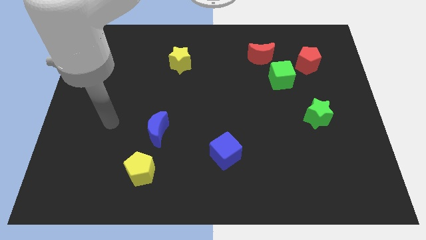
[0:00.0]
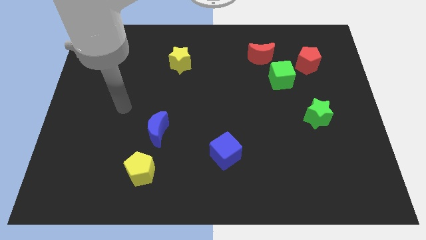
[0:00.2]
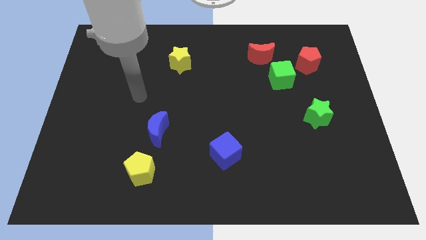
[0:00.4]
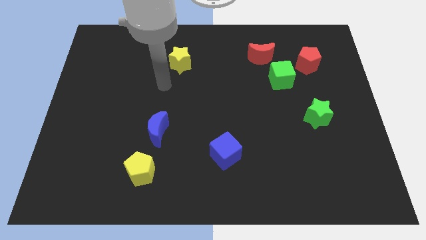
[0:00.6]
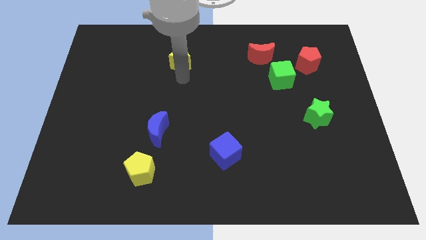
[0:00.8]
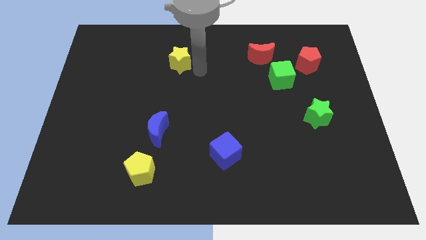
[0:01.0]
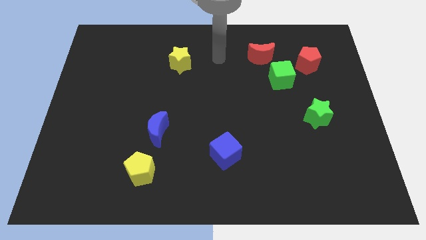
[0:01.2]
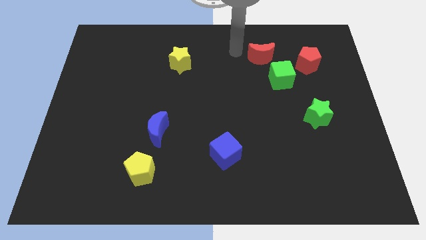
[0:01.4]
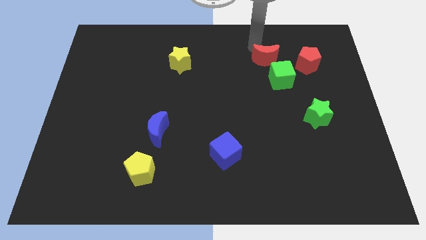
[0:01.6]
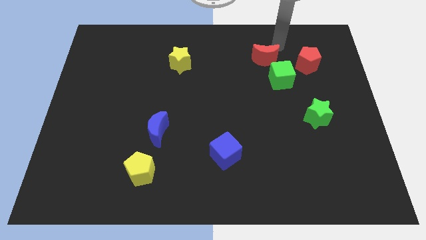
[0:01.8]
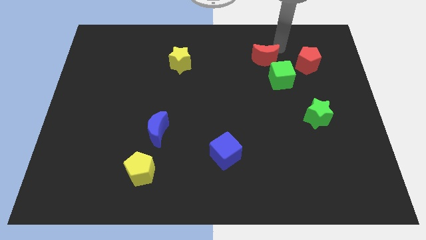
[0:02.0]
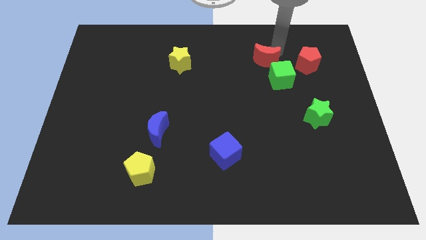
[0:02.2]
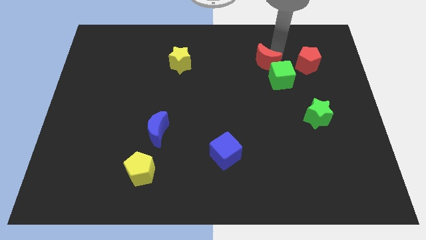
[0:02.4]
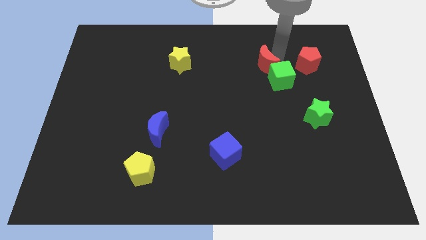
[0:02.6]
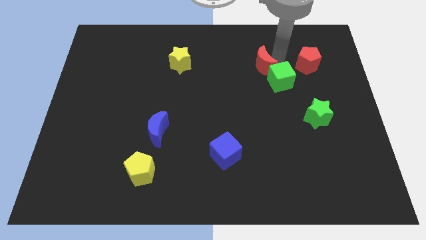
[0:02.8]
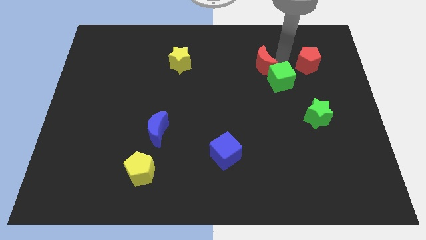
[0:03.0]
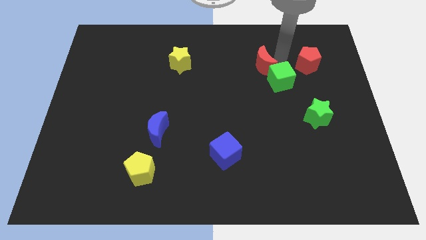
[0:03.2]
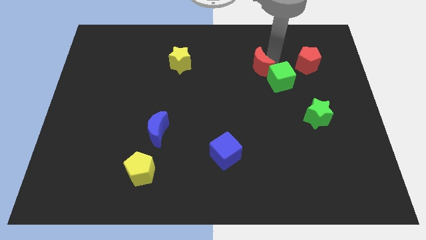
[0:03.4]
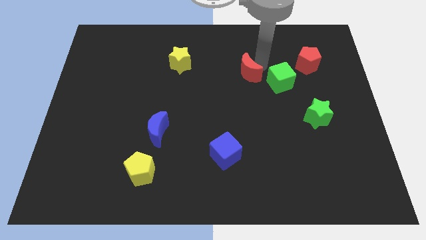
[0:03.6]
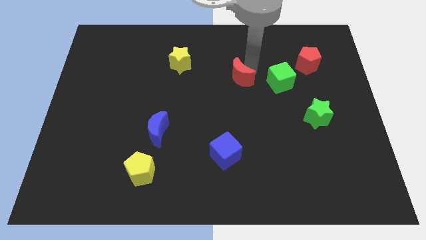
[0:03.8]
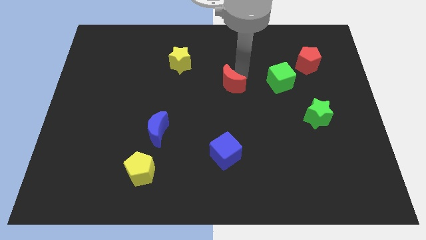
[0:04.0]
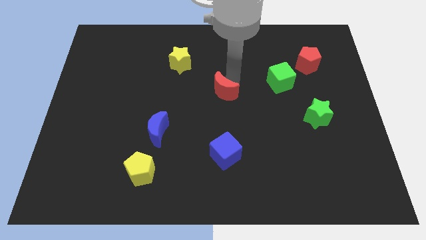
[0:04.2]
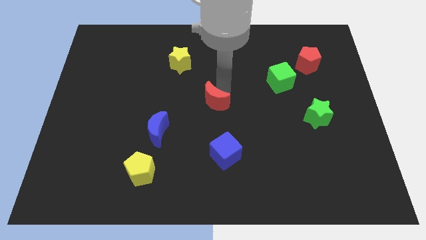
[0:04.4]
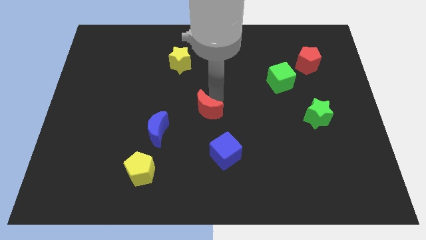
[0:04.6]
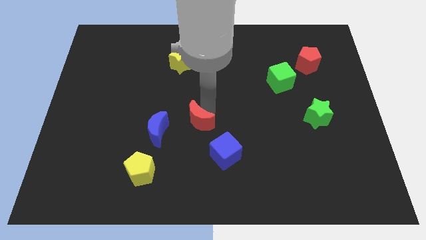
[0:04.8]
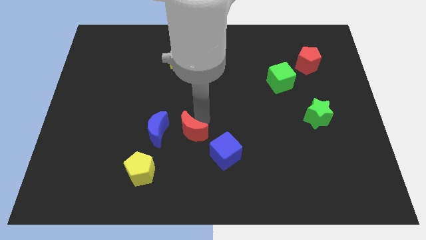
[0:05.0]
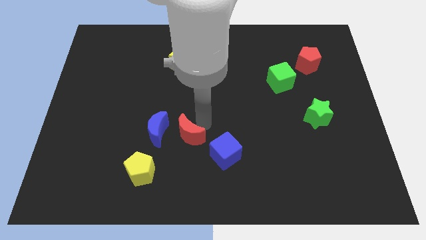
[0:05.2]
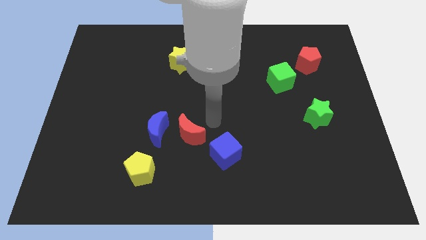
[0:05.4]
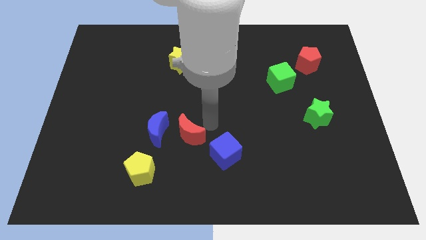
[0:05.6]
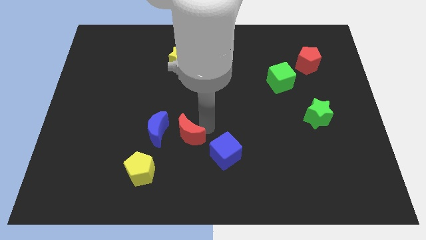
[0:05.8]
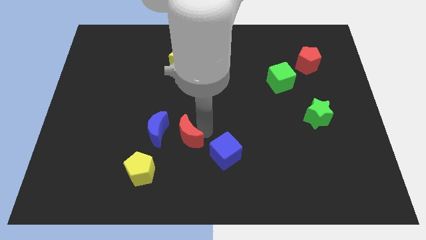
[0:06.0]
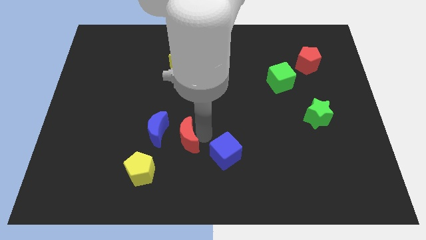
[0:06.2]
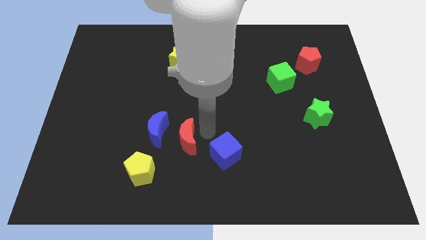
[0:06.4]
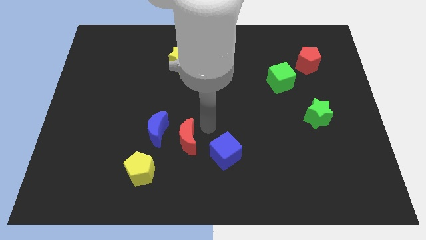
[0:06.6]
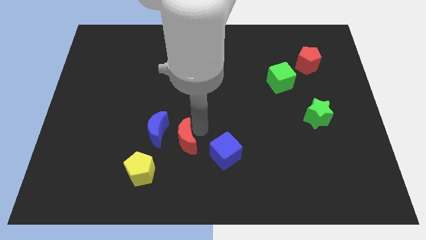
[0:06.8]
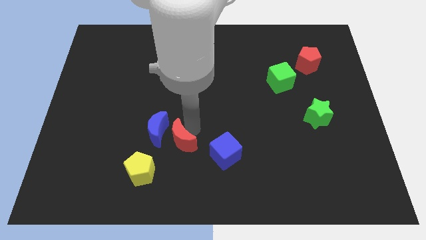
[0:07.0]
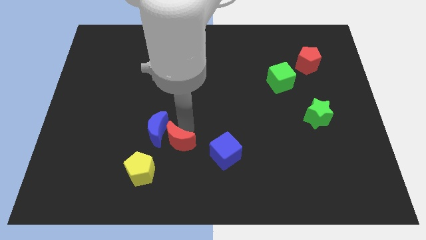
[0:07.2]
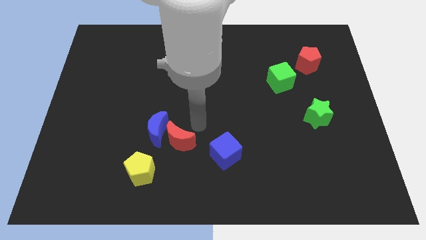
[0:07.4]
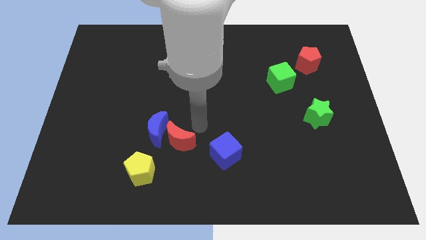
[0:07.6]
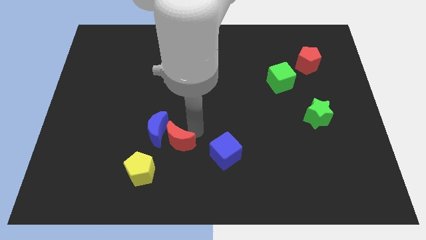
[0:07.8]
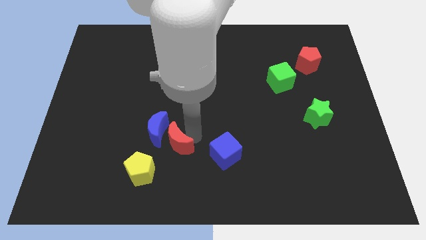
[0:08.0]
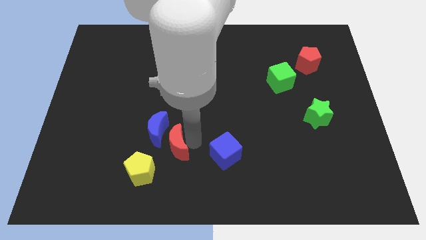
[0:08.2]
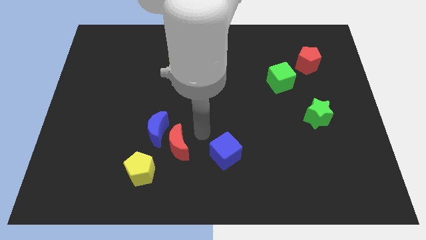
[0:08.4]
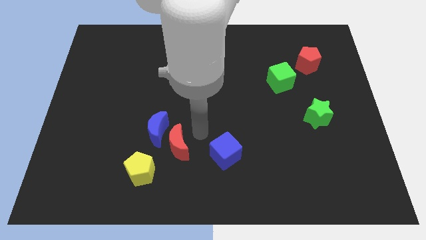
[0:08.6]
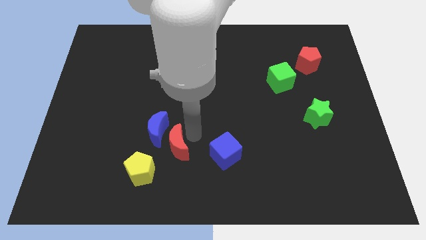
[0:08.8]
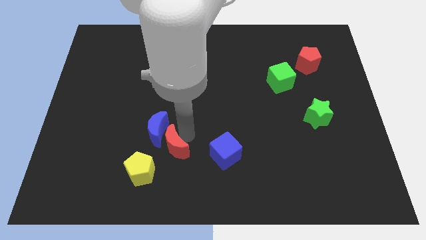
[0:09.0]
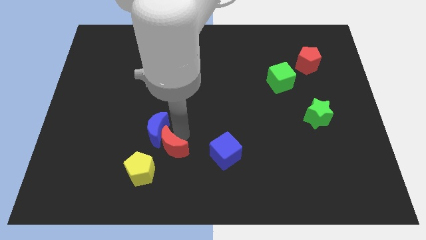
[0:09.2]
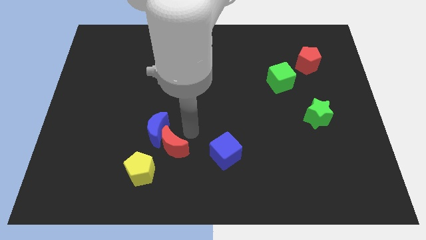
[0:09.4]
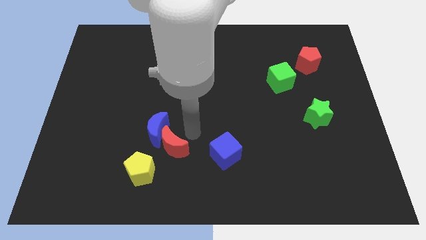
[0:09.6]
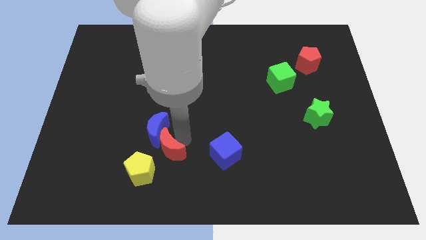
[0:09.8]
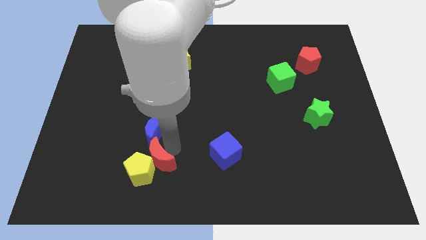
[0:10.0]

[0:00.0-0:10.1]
put the red moon to the yellow pentagon

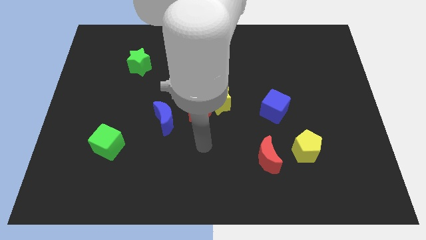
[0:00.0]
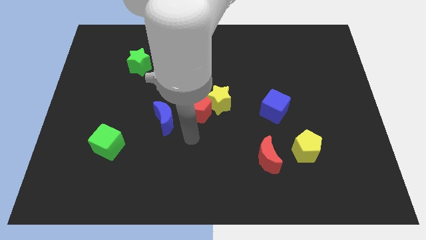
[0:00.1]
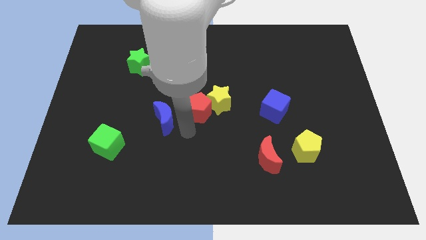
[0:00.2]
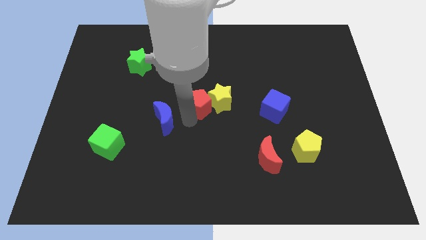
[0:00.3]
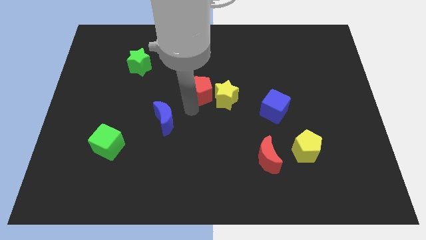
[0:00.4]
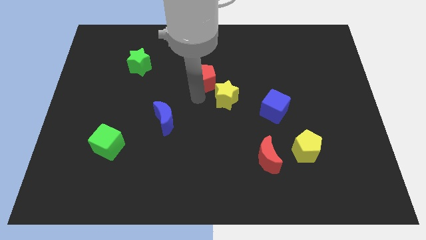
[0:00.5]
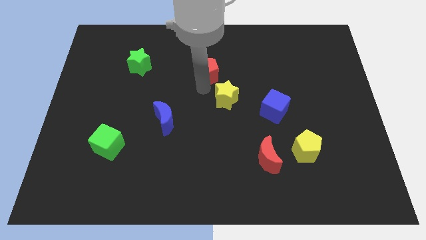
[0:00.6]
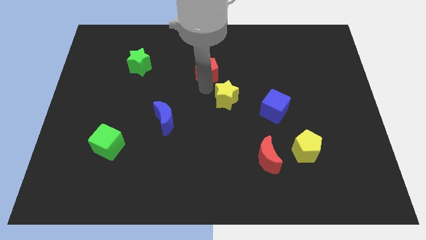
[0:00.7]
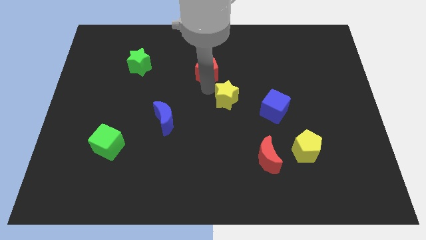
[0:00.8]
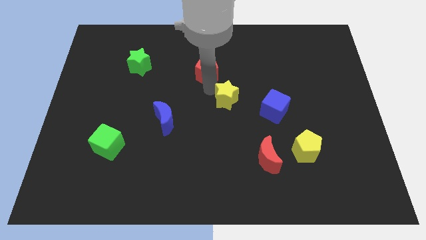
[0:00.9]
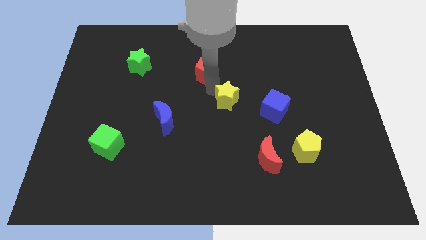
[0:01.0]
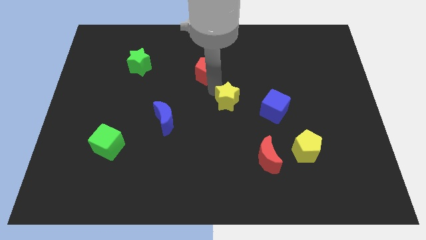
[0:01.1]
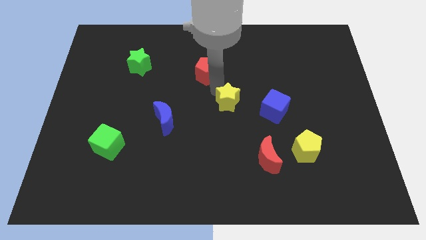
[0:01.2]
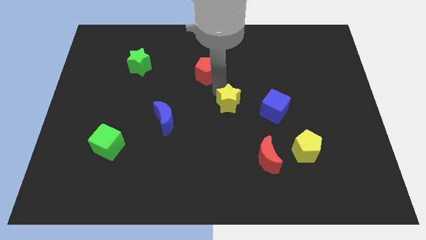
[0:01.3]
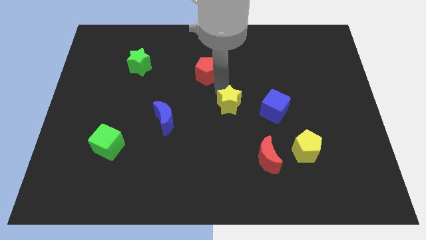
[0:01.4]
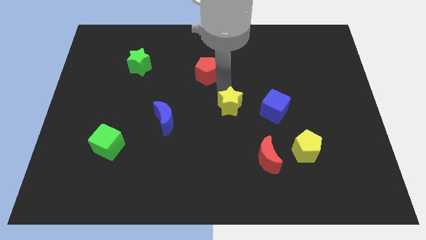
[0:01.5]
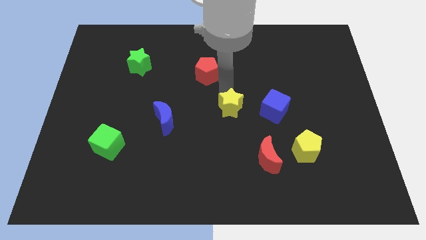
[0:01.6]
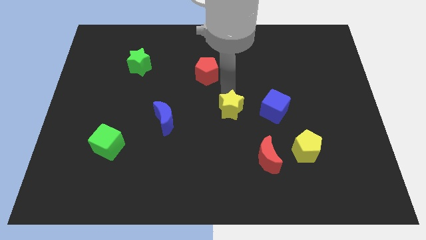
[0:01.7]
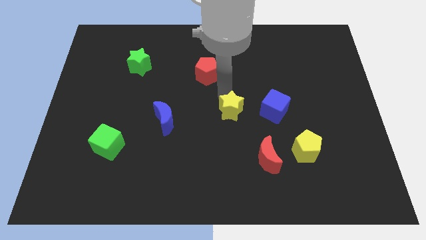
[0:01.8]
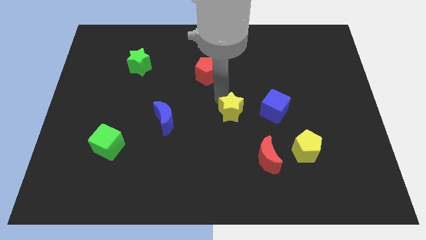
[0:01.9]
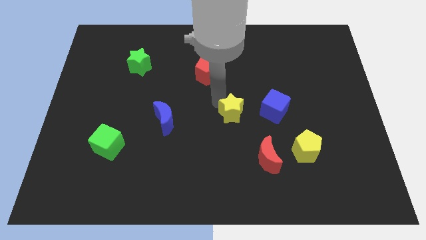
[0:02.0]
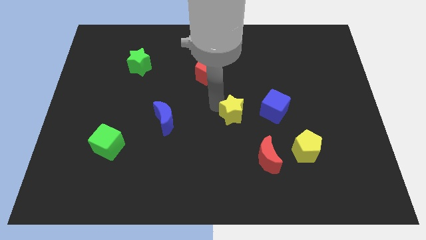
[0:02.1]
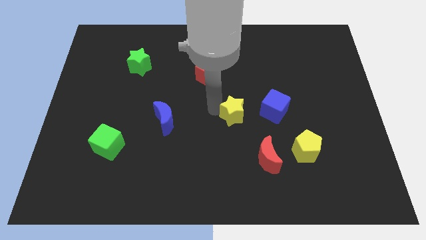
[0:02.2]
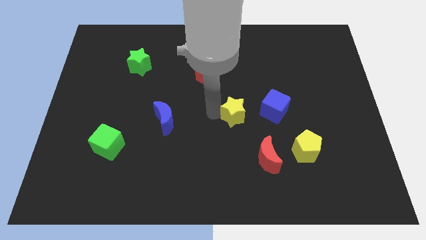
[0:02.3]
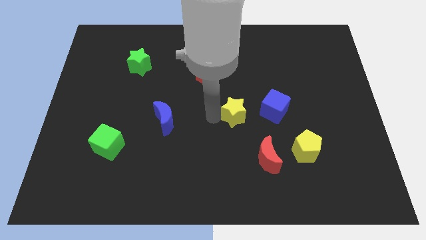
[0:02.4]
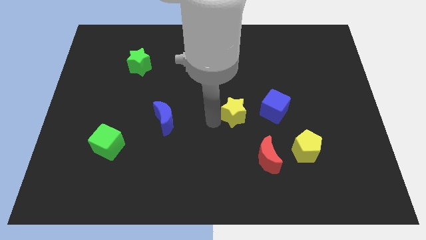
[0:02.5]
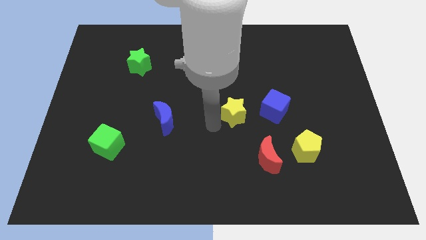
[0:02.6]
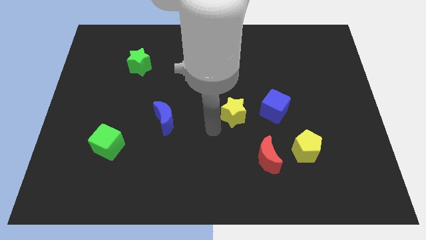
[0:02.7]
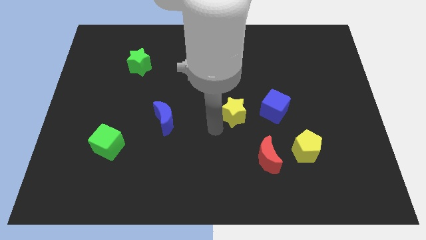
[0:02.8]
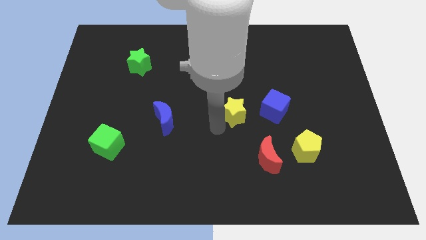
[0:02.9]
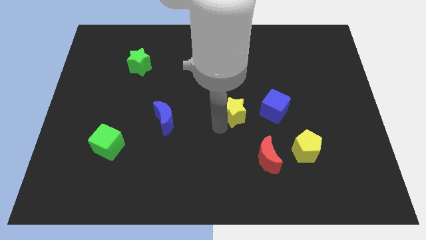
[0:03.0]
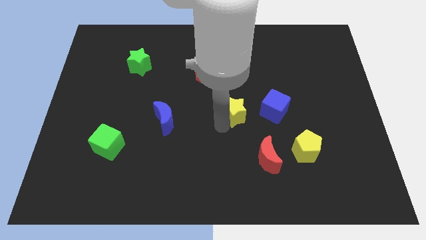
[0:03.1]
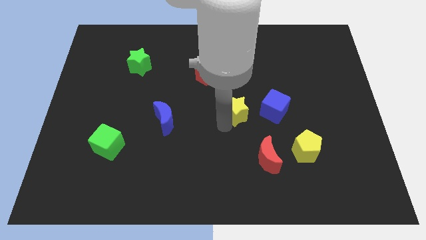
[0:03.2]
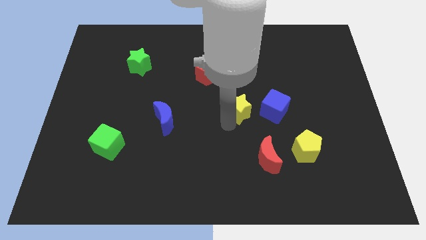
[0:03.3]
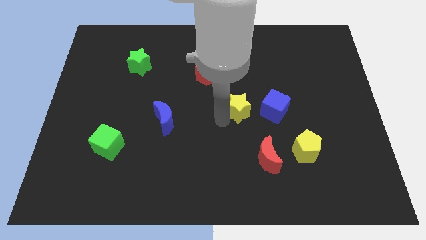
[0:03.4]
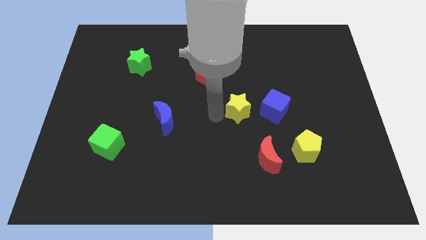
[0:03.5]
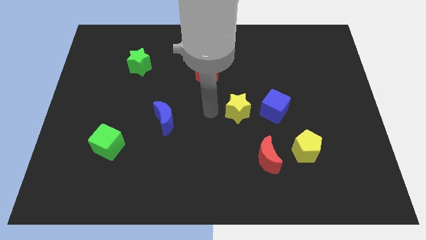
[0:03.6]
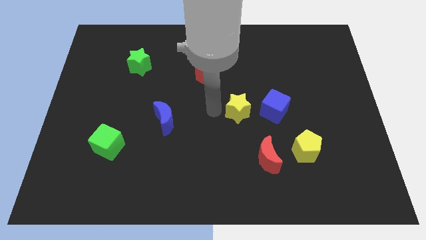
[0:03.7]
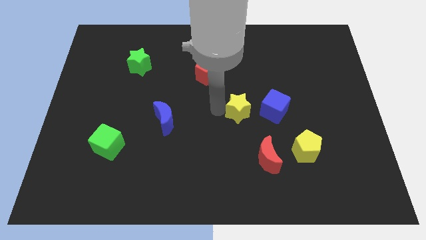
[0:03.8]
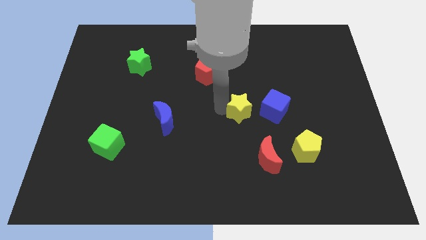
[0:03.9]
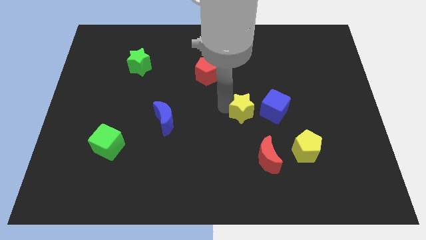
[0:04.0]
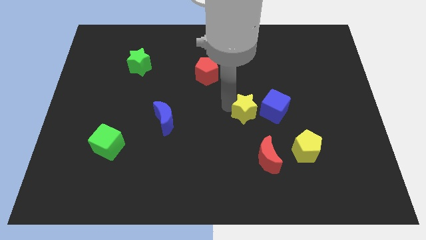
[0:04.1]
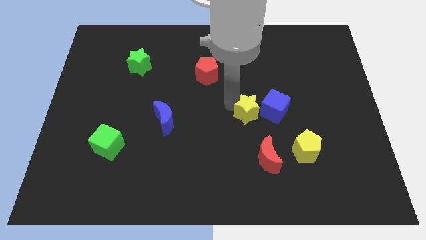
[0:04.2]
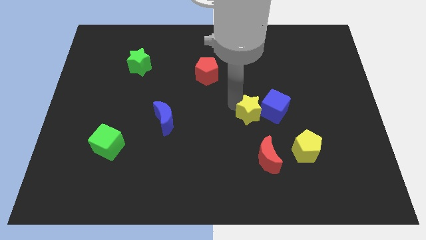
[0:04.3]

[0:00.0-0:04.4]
move the yellow star close to the blue cube
